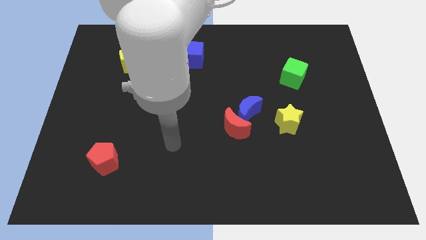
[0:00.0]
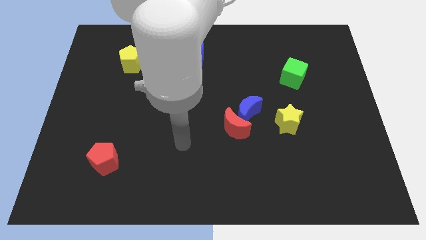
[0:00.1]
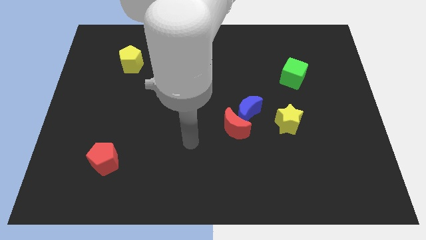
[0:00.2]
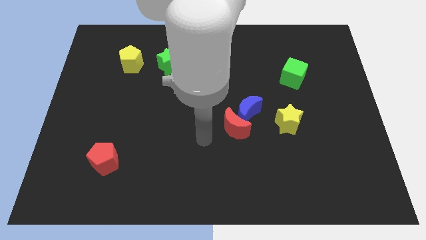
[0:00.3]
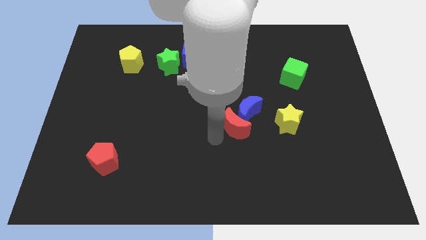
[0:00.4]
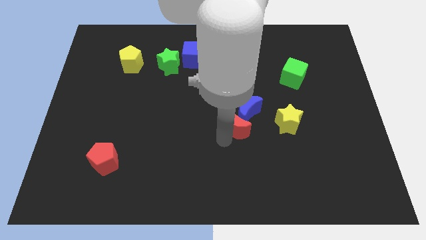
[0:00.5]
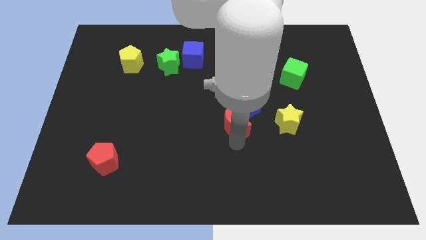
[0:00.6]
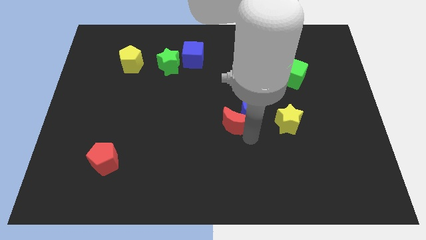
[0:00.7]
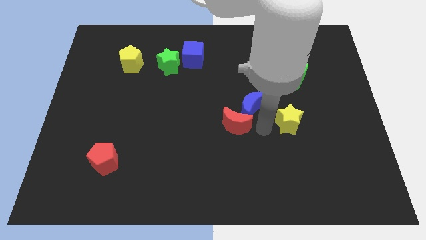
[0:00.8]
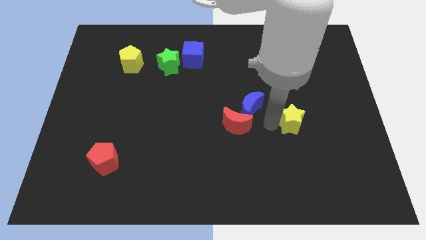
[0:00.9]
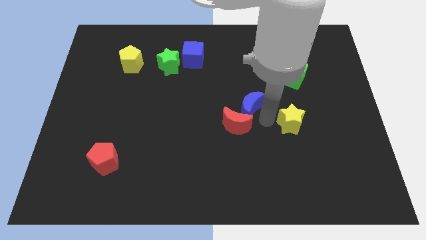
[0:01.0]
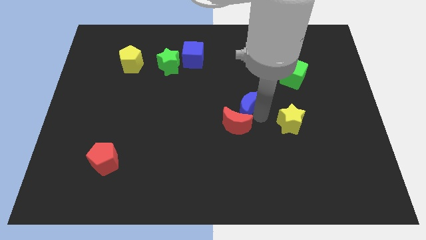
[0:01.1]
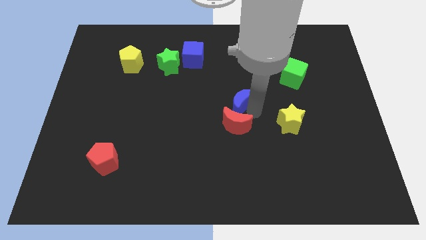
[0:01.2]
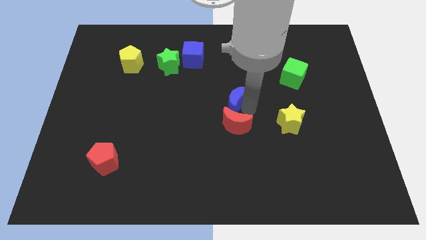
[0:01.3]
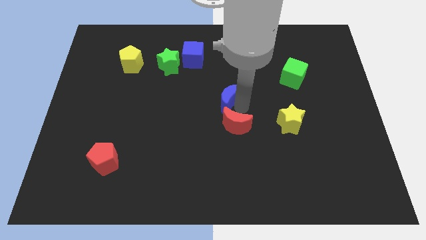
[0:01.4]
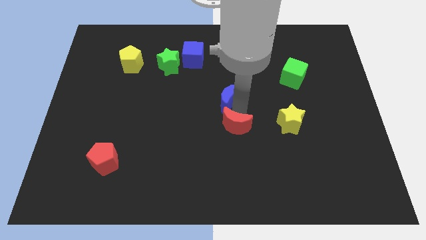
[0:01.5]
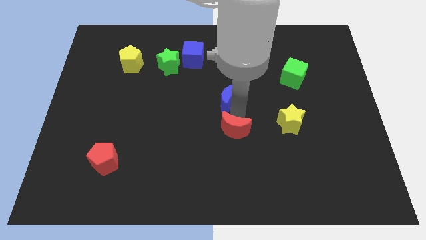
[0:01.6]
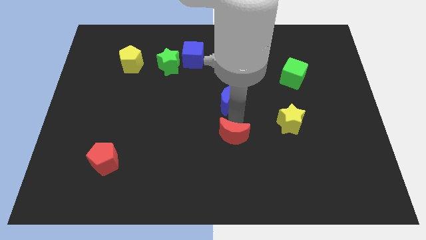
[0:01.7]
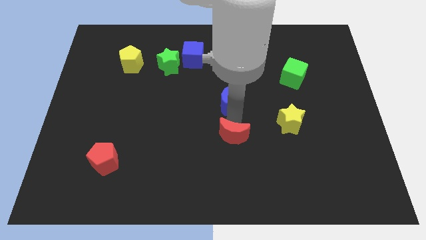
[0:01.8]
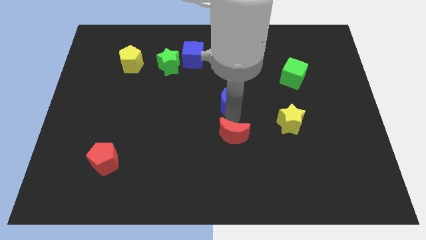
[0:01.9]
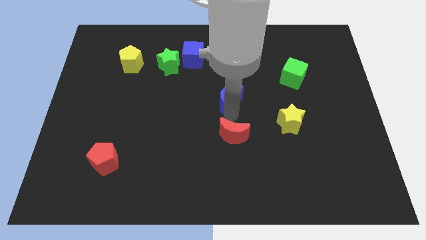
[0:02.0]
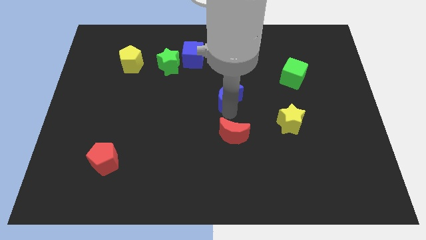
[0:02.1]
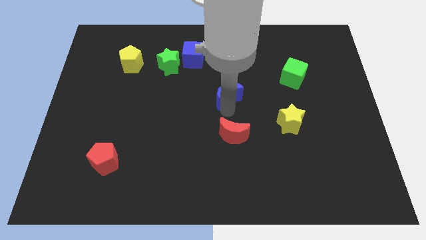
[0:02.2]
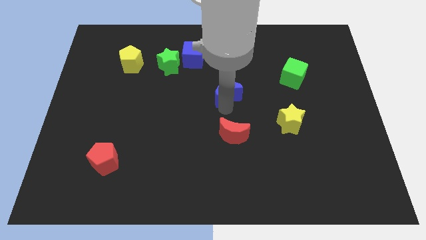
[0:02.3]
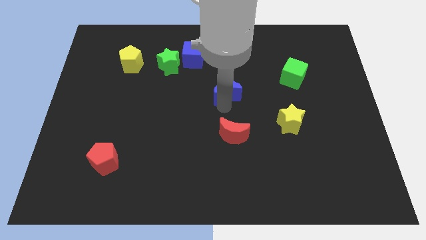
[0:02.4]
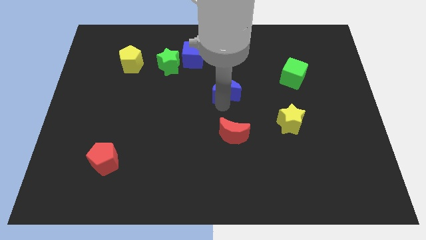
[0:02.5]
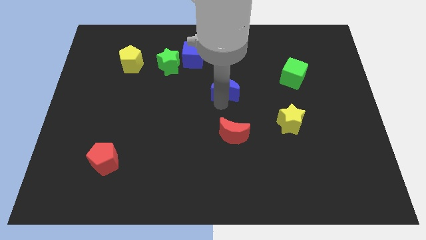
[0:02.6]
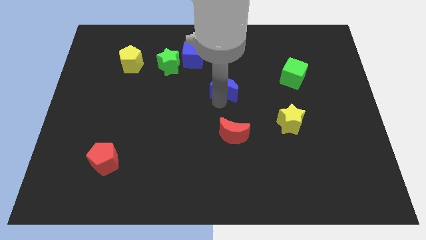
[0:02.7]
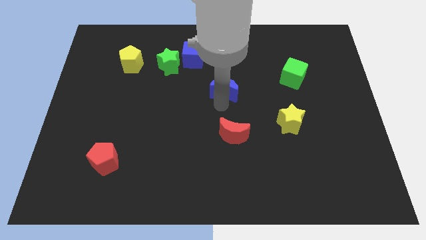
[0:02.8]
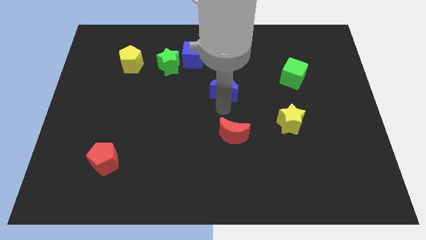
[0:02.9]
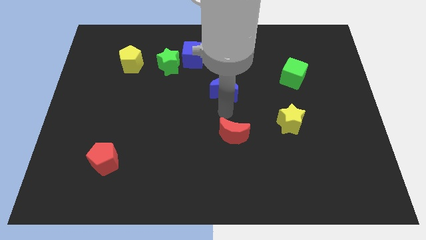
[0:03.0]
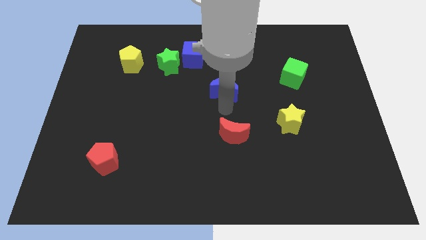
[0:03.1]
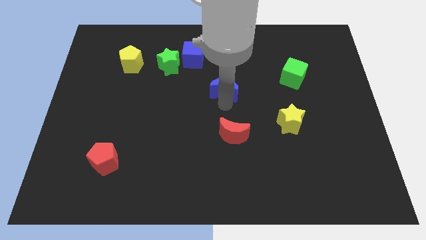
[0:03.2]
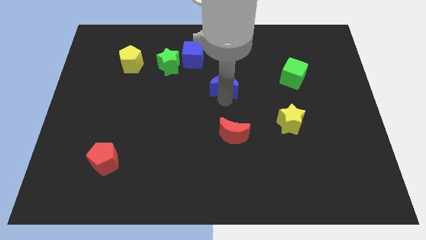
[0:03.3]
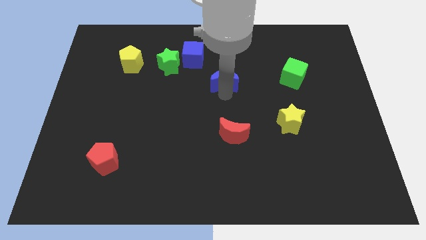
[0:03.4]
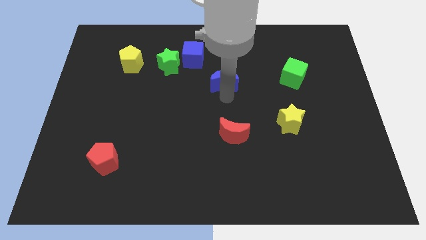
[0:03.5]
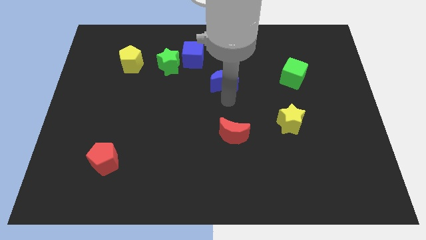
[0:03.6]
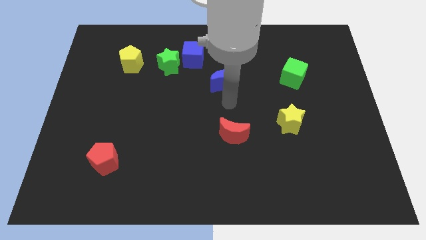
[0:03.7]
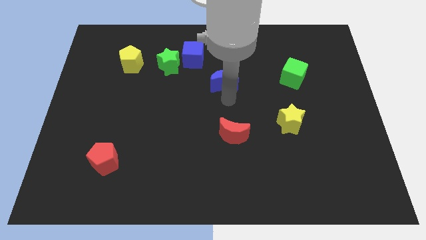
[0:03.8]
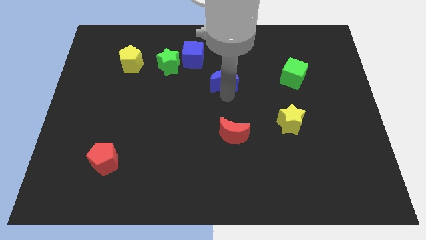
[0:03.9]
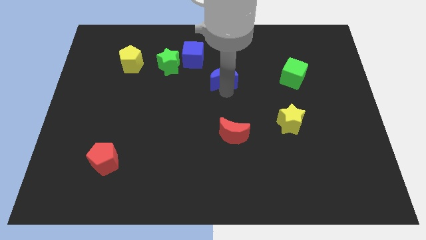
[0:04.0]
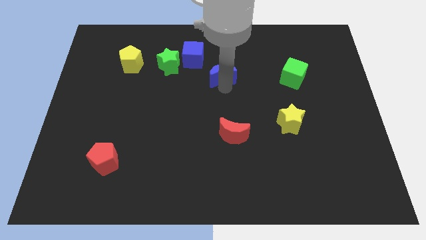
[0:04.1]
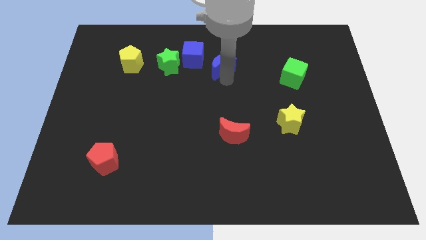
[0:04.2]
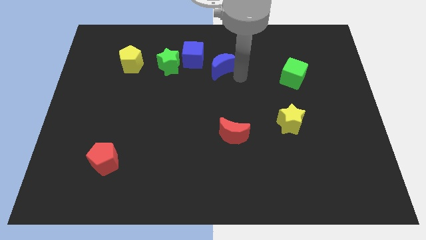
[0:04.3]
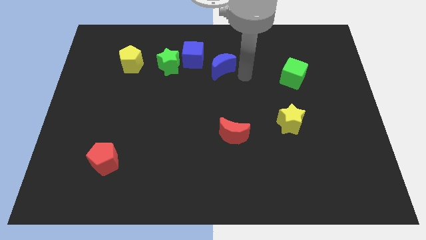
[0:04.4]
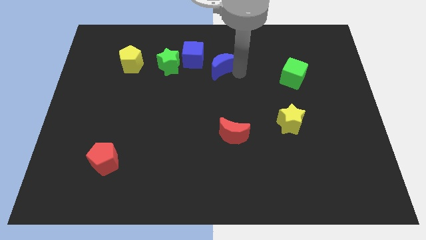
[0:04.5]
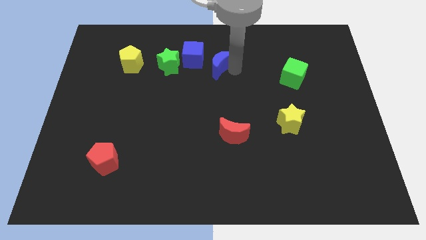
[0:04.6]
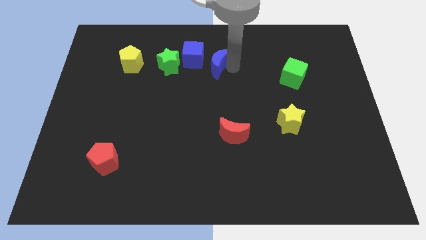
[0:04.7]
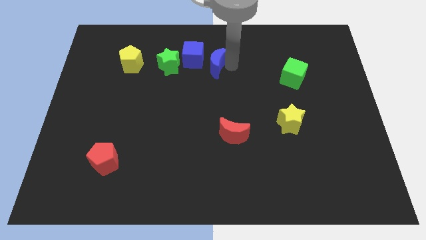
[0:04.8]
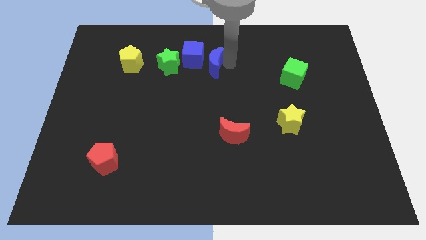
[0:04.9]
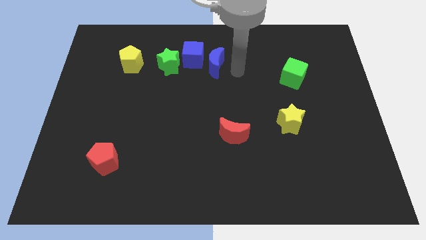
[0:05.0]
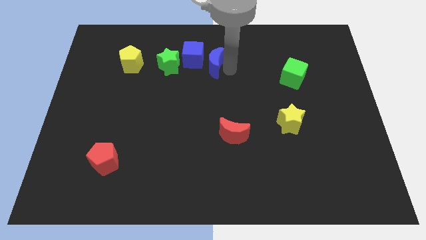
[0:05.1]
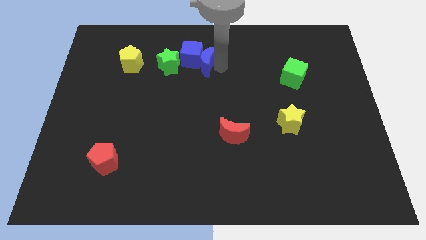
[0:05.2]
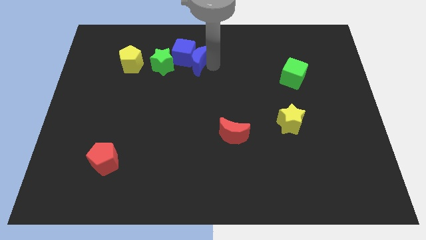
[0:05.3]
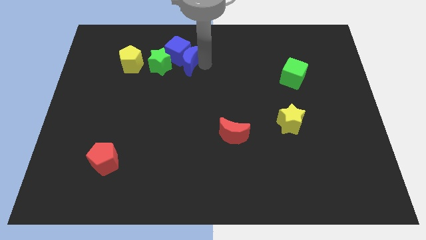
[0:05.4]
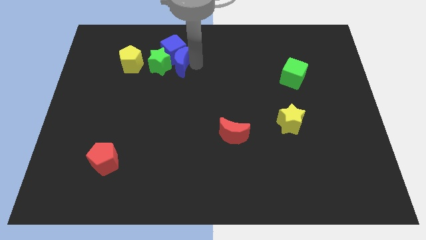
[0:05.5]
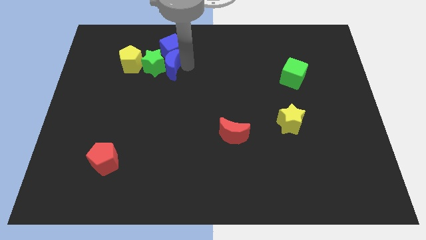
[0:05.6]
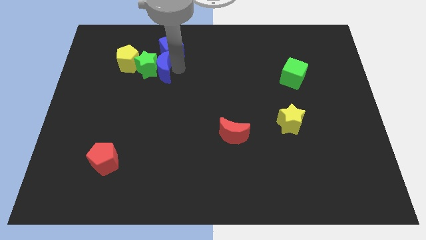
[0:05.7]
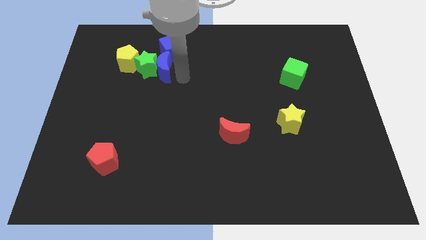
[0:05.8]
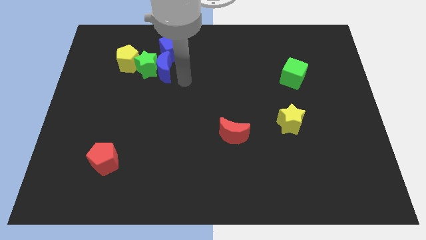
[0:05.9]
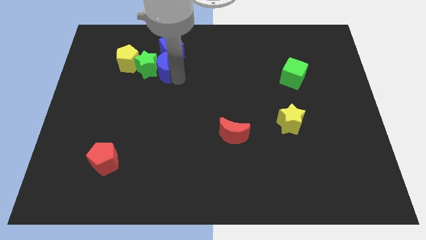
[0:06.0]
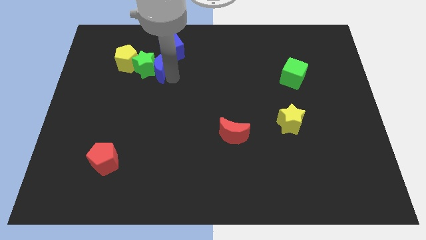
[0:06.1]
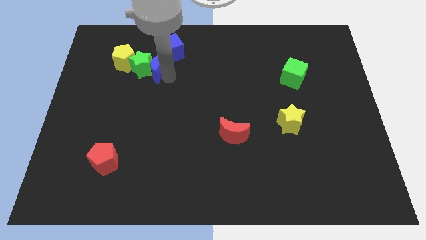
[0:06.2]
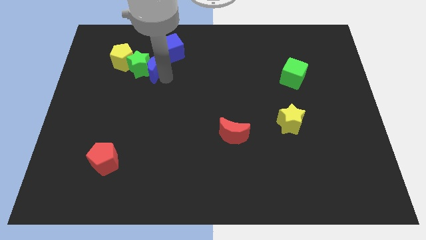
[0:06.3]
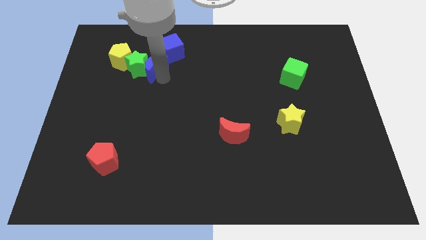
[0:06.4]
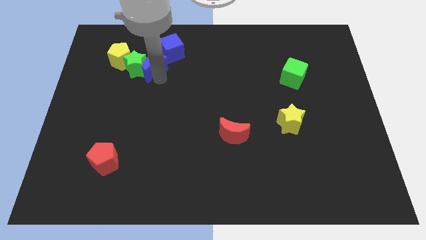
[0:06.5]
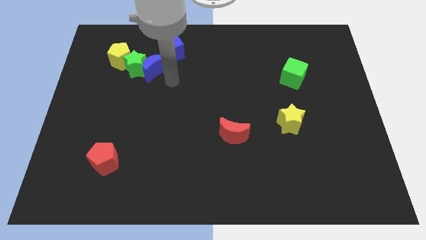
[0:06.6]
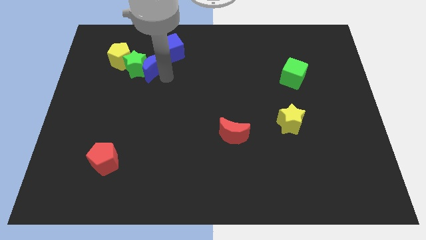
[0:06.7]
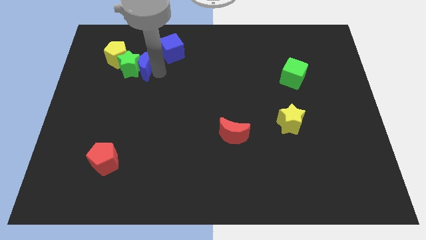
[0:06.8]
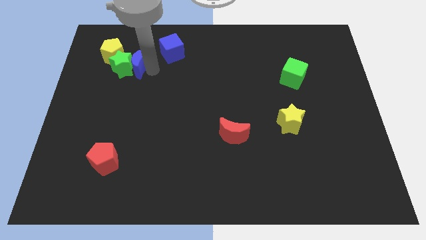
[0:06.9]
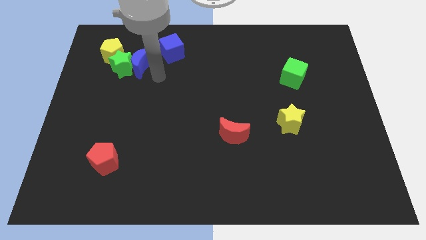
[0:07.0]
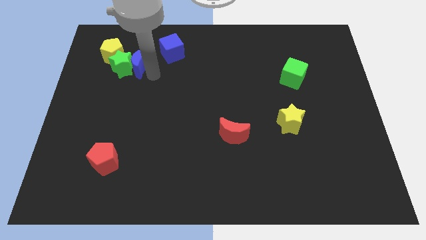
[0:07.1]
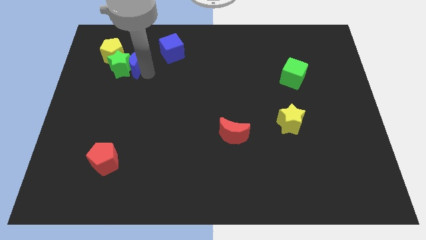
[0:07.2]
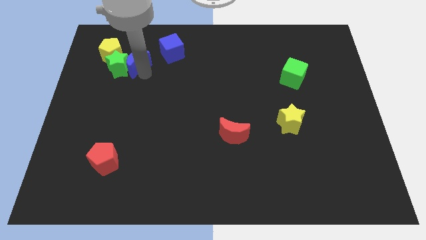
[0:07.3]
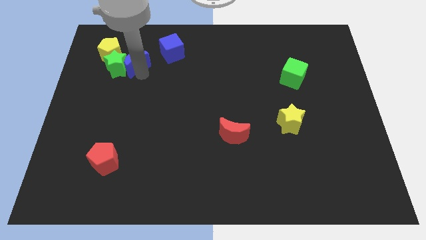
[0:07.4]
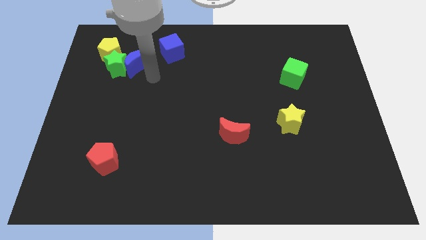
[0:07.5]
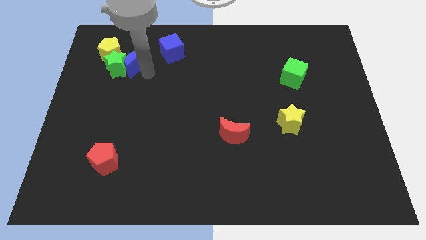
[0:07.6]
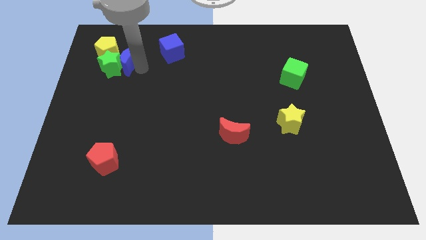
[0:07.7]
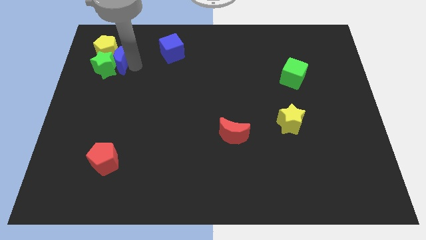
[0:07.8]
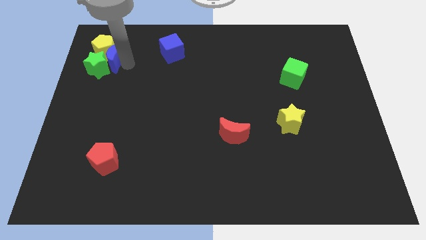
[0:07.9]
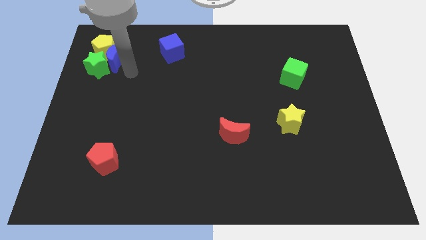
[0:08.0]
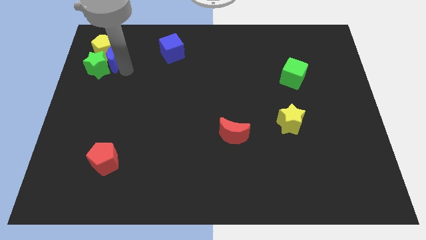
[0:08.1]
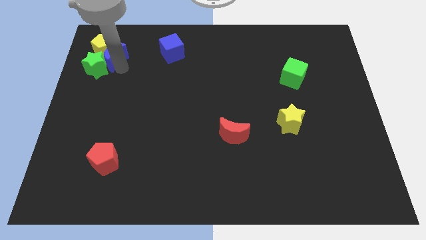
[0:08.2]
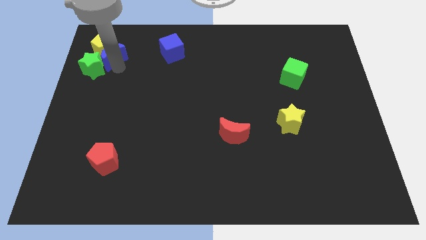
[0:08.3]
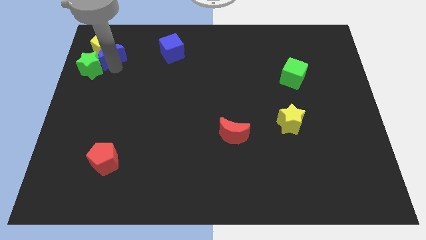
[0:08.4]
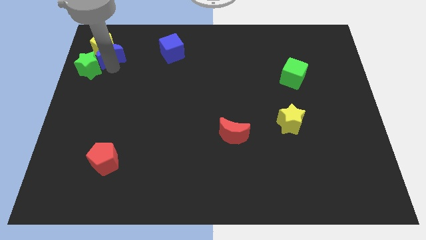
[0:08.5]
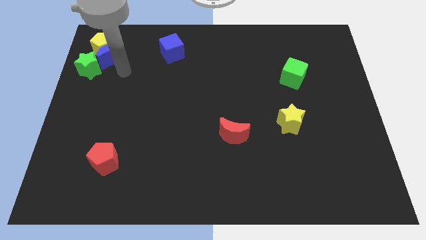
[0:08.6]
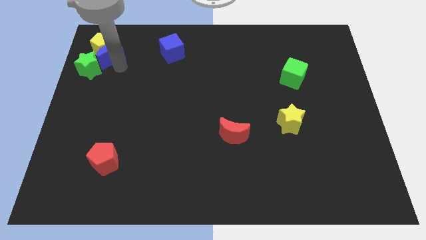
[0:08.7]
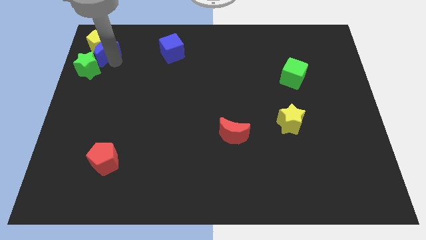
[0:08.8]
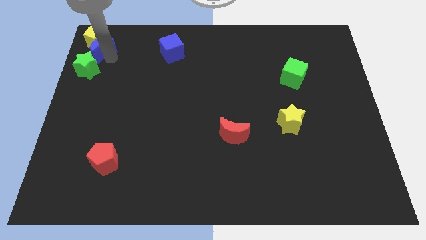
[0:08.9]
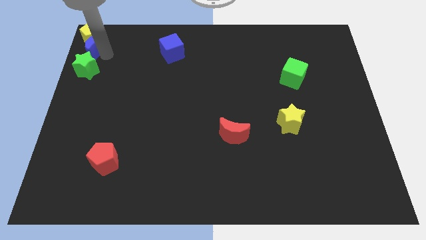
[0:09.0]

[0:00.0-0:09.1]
put the blue moon to the top left
